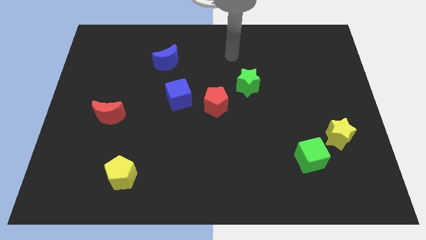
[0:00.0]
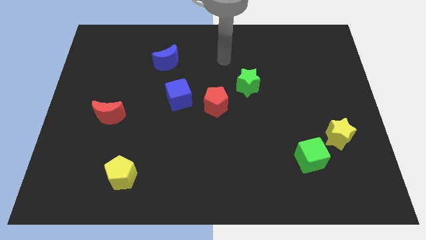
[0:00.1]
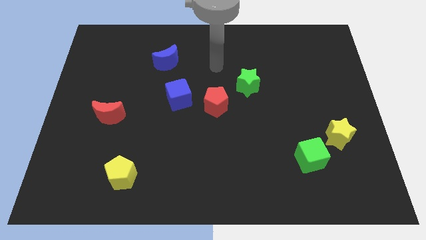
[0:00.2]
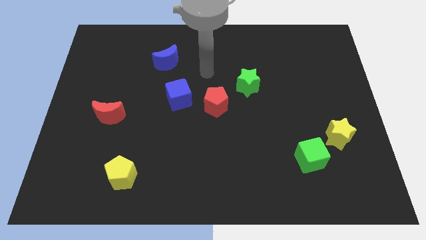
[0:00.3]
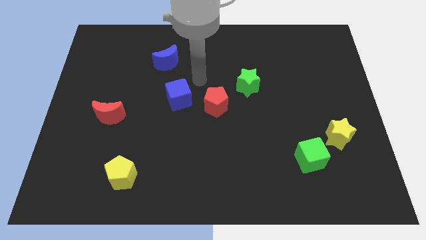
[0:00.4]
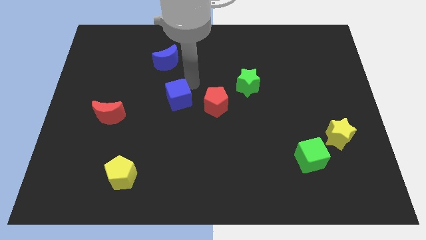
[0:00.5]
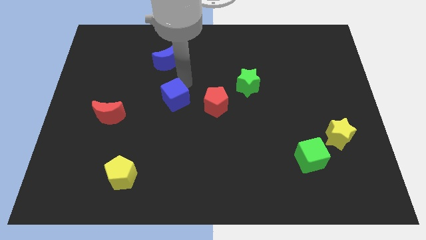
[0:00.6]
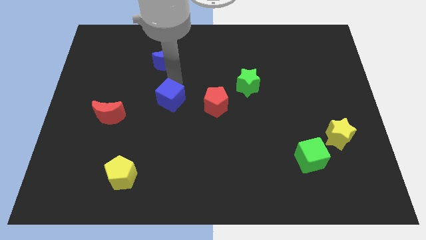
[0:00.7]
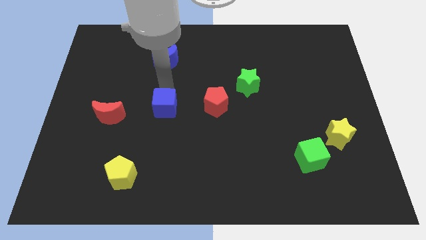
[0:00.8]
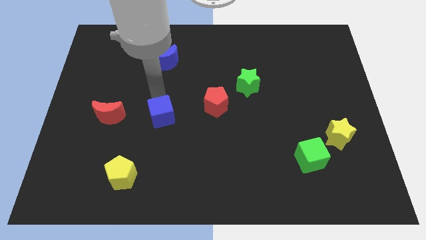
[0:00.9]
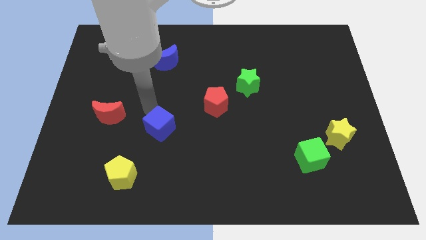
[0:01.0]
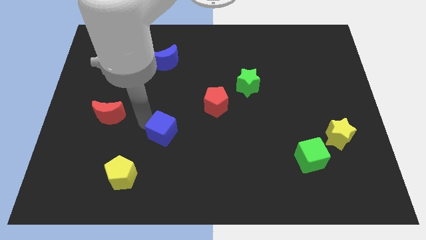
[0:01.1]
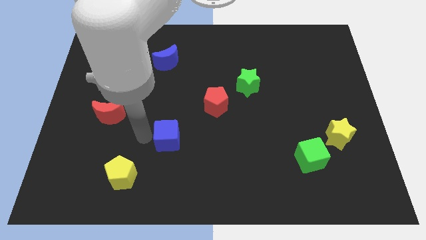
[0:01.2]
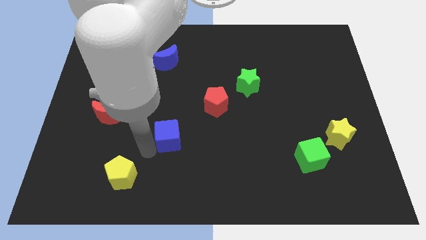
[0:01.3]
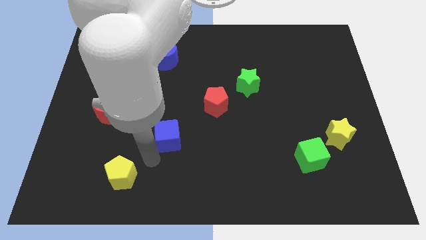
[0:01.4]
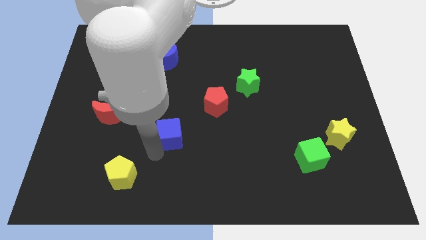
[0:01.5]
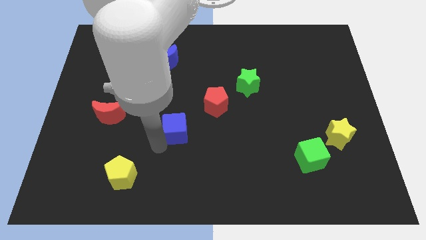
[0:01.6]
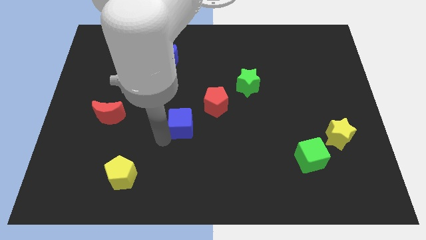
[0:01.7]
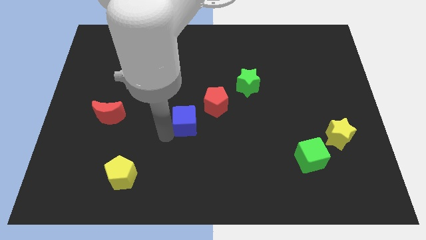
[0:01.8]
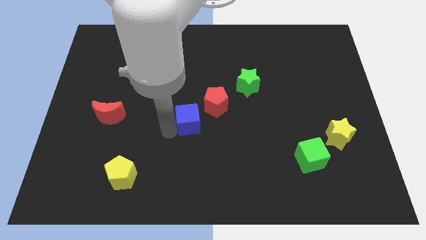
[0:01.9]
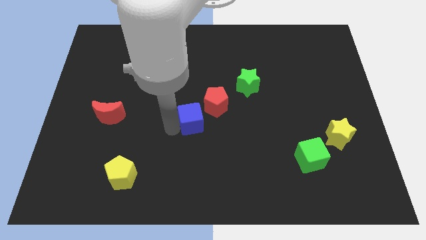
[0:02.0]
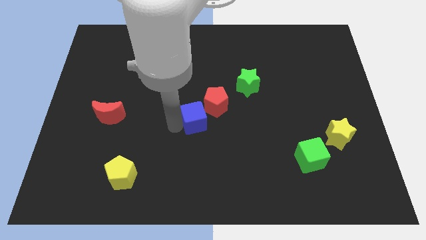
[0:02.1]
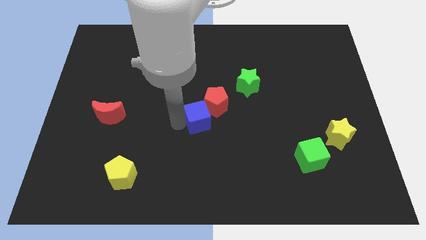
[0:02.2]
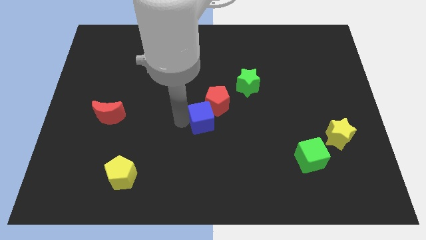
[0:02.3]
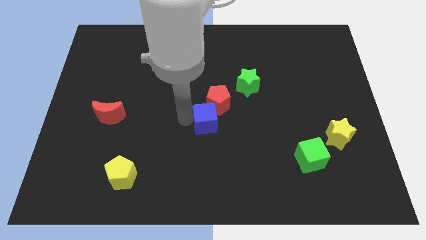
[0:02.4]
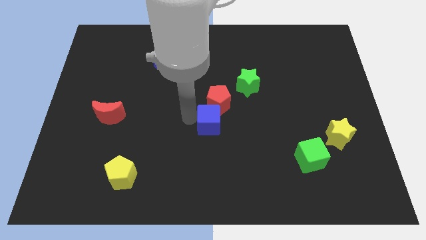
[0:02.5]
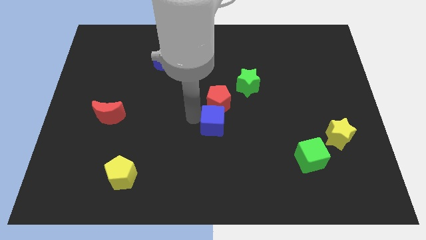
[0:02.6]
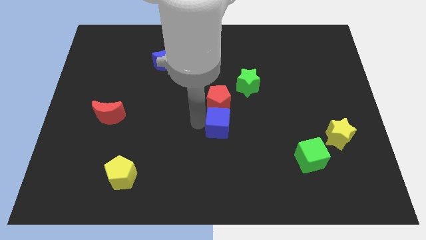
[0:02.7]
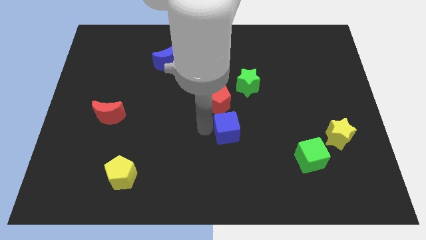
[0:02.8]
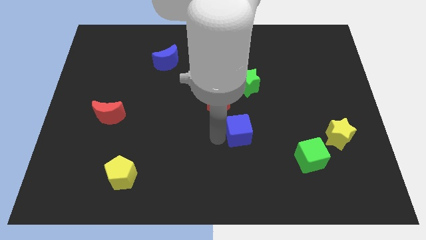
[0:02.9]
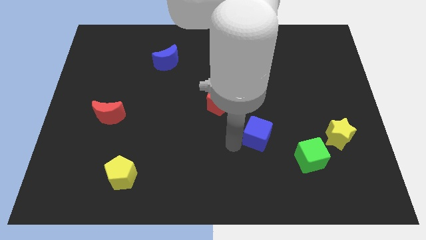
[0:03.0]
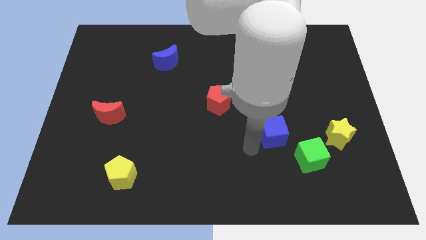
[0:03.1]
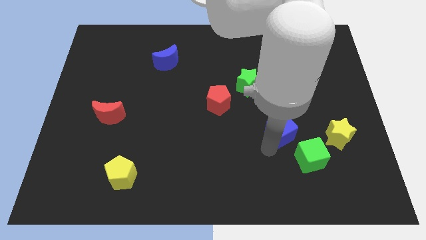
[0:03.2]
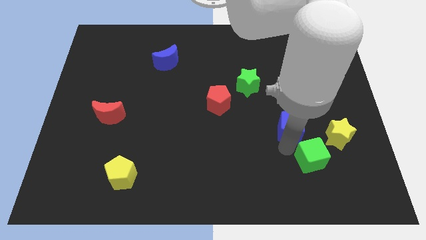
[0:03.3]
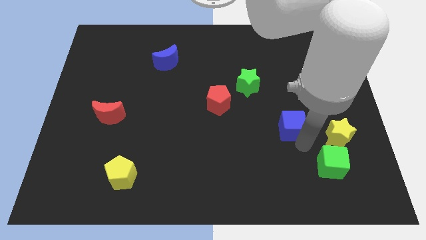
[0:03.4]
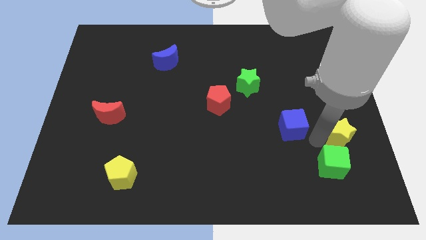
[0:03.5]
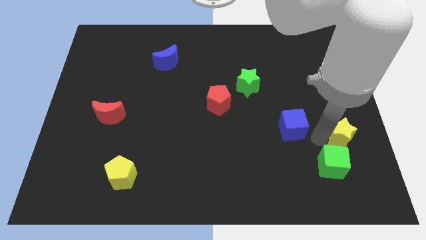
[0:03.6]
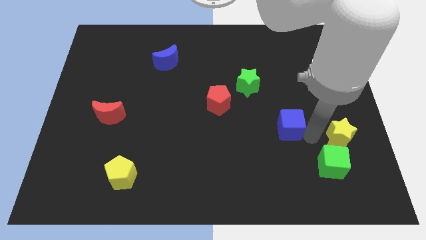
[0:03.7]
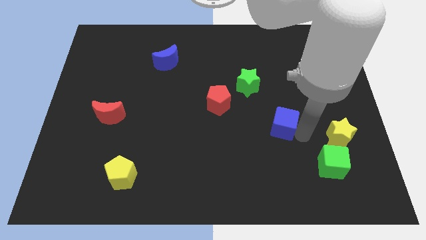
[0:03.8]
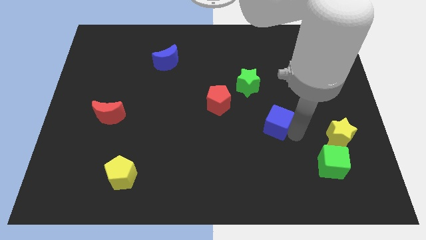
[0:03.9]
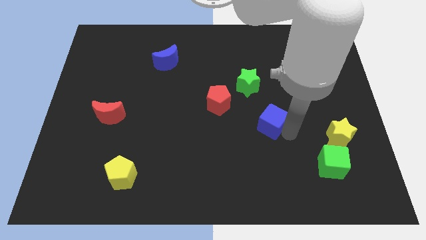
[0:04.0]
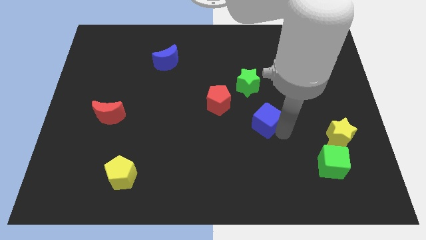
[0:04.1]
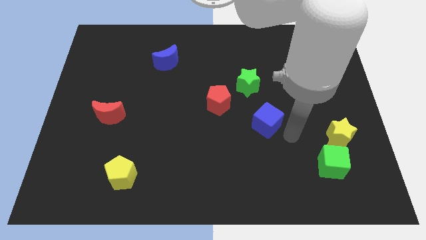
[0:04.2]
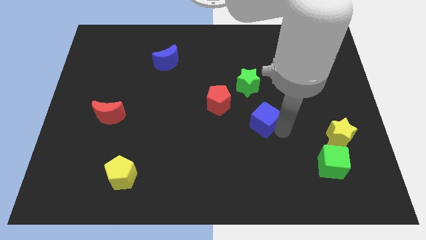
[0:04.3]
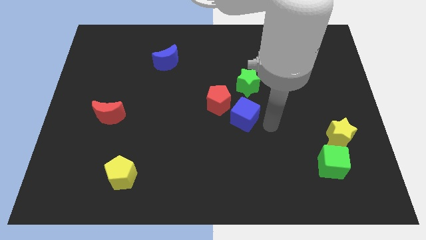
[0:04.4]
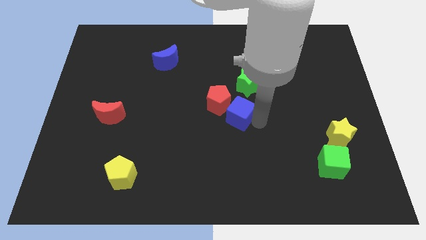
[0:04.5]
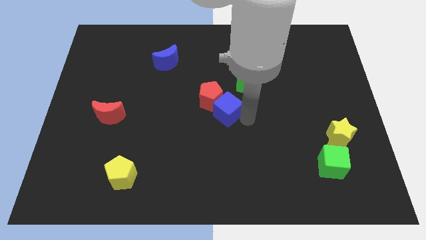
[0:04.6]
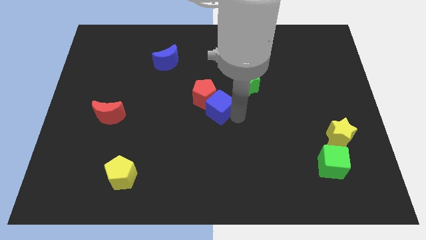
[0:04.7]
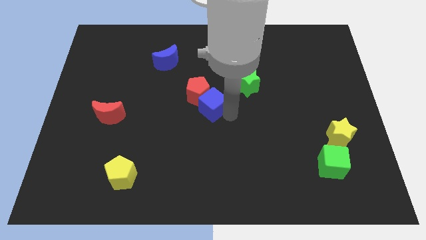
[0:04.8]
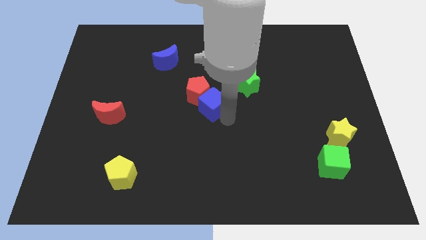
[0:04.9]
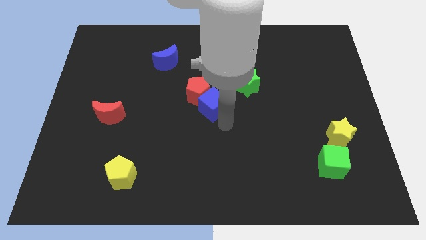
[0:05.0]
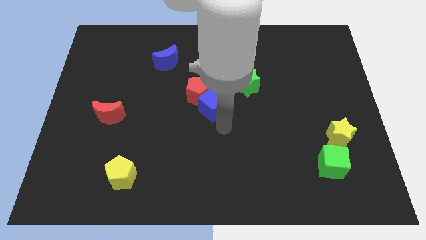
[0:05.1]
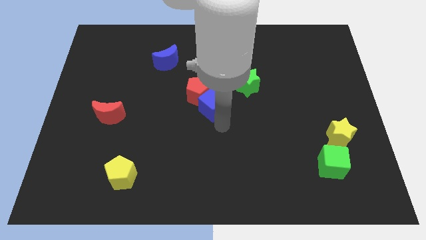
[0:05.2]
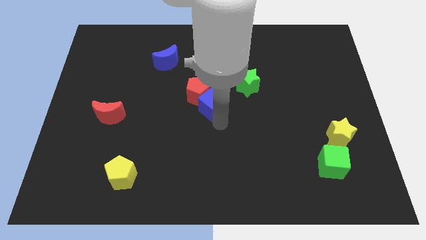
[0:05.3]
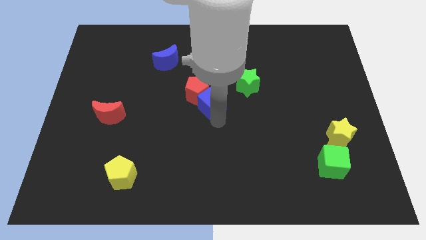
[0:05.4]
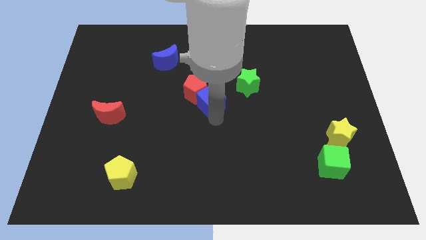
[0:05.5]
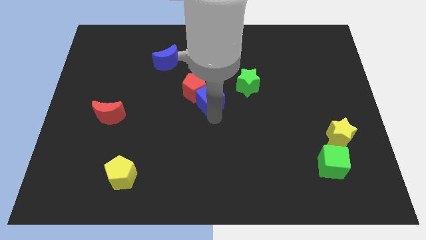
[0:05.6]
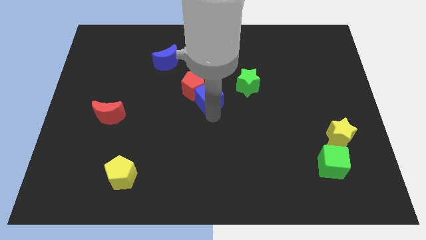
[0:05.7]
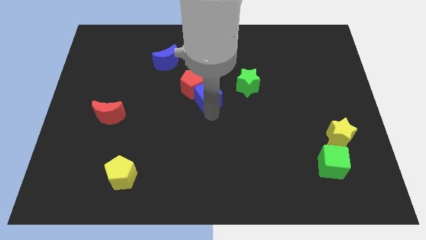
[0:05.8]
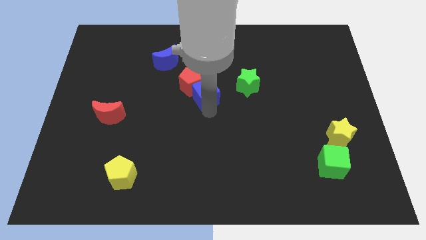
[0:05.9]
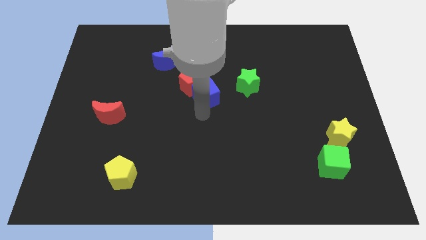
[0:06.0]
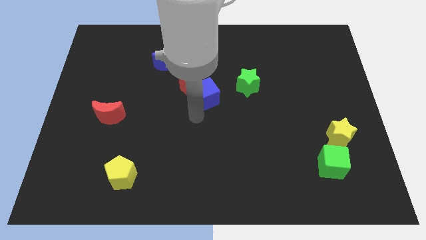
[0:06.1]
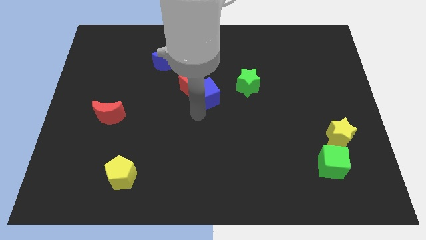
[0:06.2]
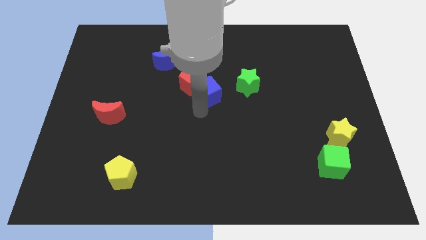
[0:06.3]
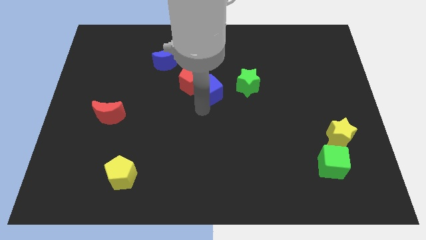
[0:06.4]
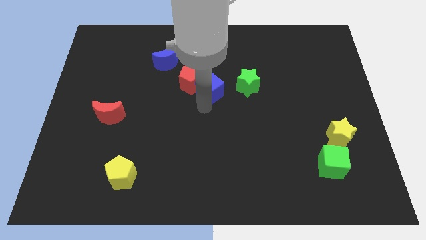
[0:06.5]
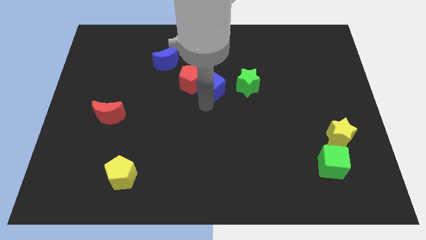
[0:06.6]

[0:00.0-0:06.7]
slide the blue cube diagonally up and right a bit

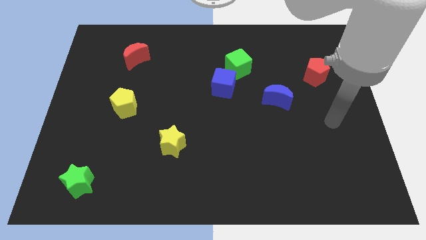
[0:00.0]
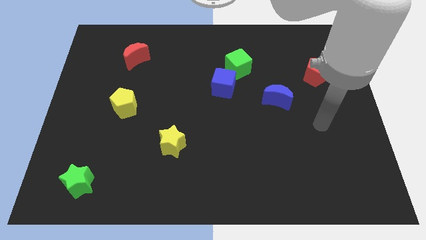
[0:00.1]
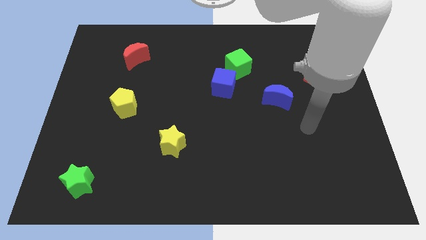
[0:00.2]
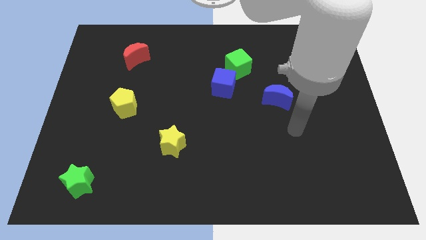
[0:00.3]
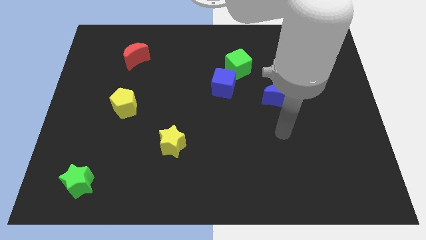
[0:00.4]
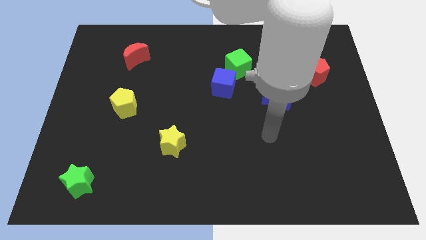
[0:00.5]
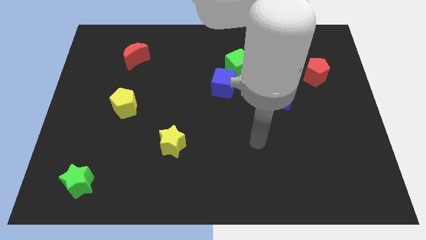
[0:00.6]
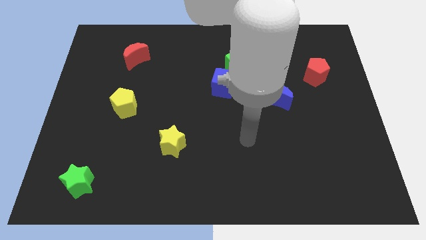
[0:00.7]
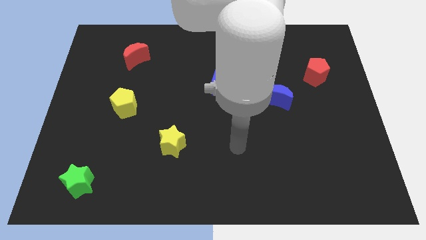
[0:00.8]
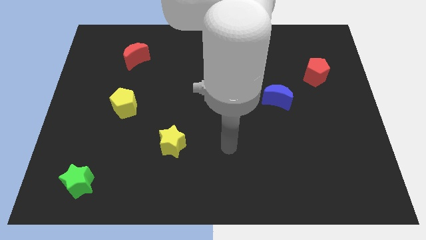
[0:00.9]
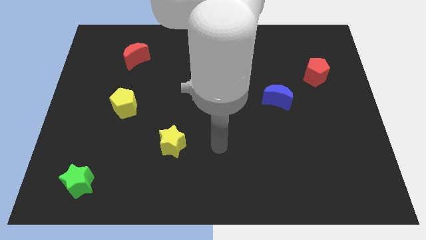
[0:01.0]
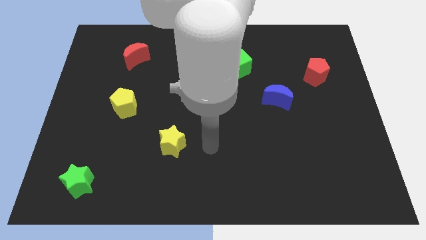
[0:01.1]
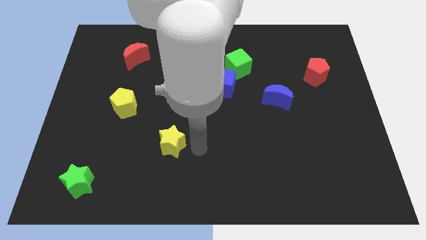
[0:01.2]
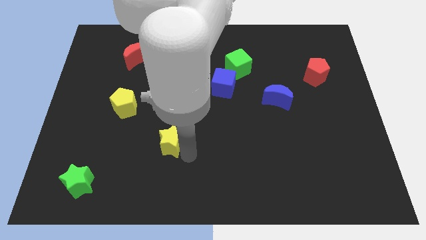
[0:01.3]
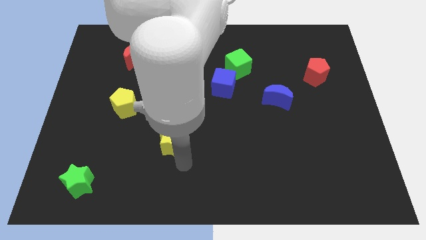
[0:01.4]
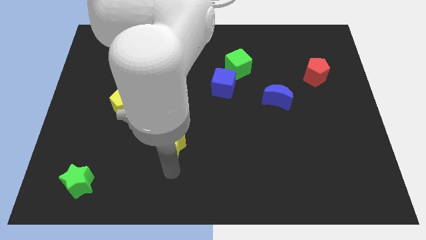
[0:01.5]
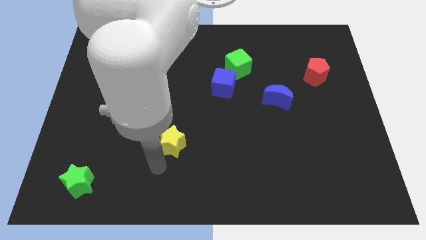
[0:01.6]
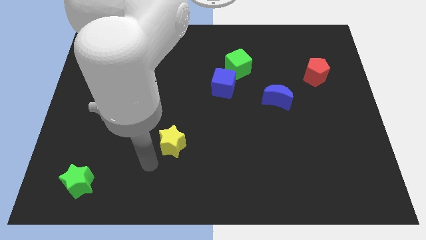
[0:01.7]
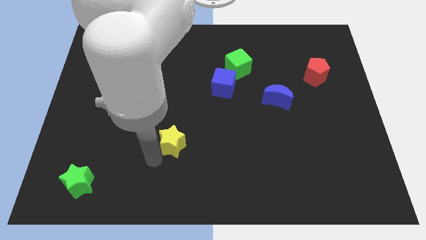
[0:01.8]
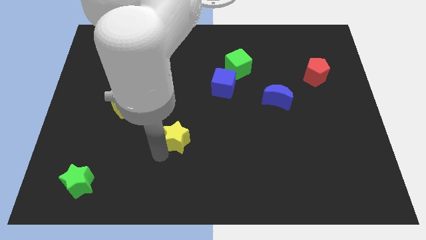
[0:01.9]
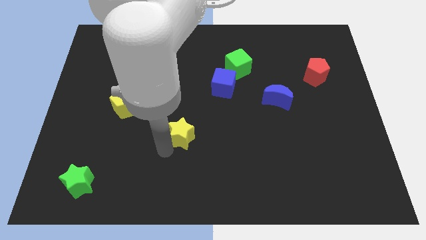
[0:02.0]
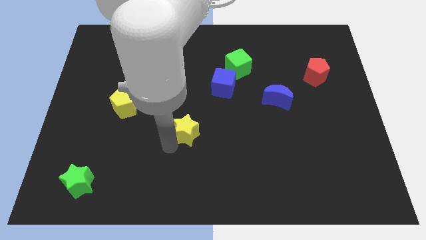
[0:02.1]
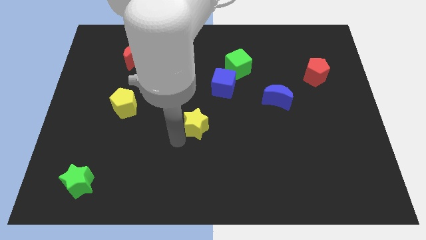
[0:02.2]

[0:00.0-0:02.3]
slightly push the yellow star diagonally up and to the right
